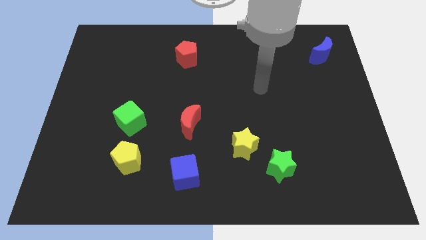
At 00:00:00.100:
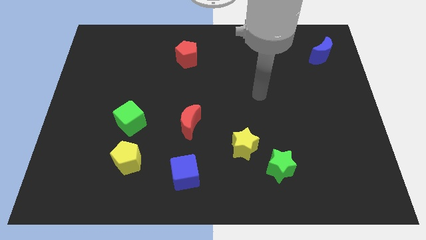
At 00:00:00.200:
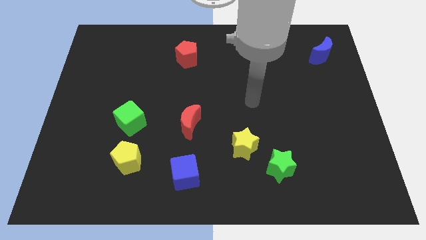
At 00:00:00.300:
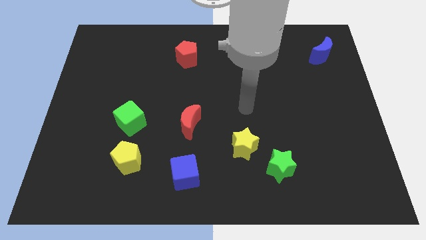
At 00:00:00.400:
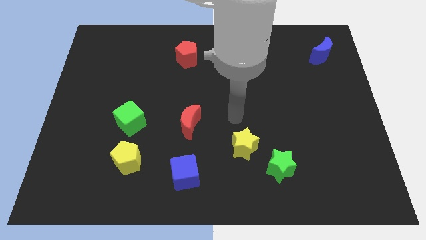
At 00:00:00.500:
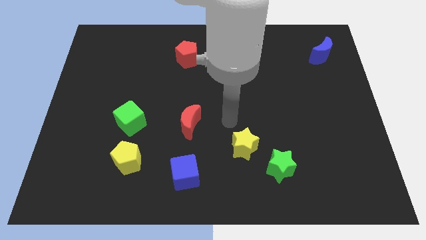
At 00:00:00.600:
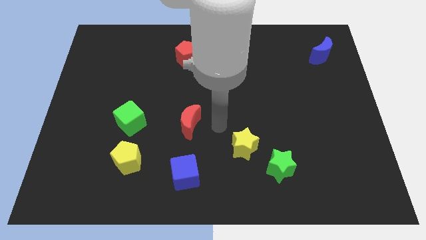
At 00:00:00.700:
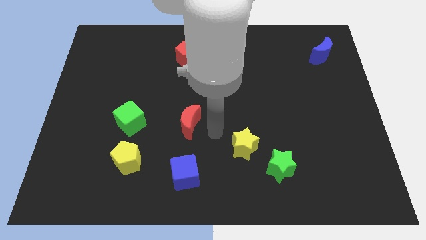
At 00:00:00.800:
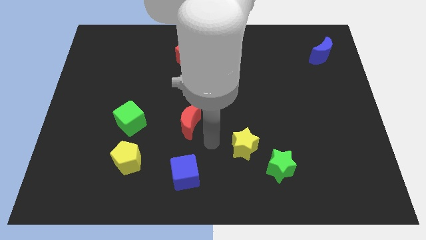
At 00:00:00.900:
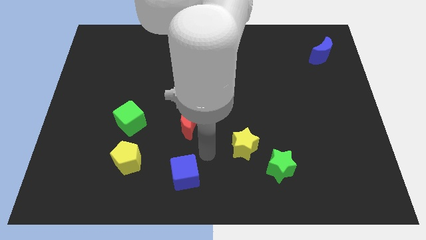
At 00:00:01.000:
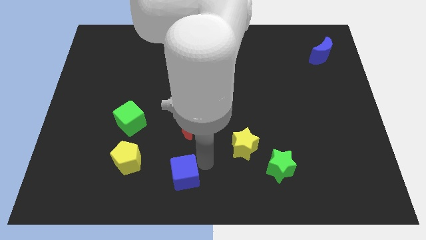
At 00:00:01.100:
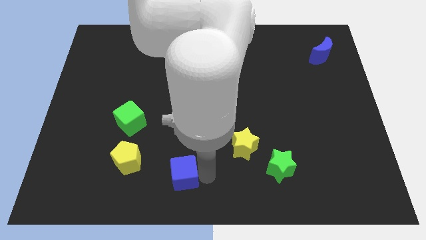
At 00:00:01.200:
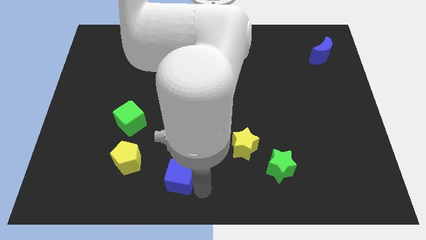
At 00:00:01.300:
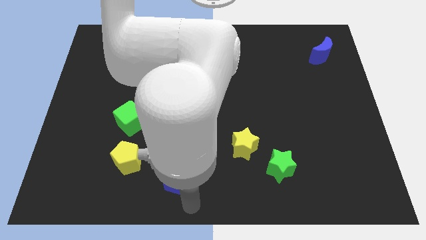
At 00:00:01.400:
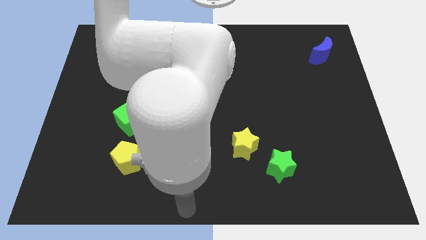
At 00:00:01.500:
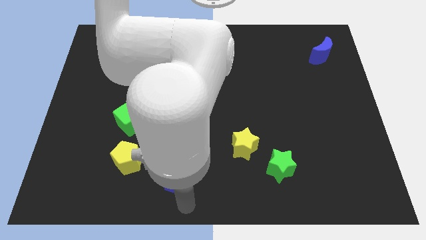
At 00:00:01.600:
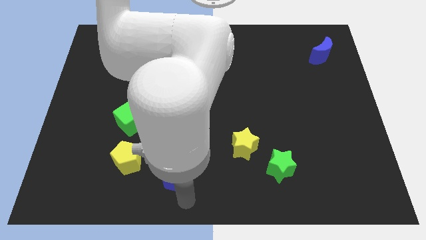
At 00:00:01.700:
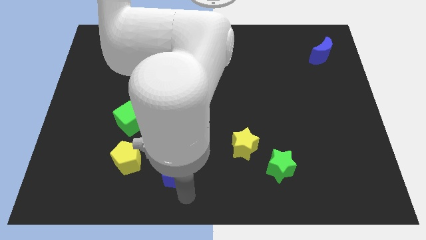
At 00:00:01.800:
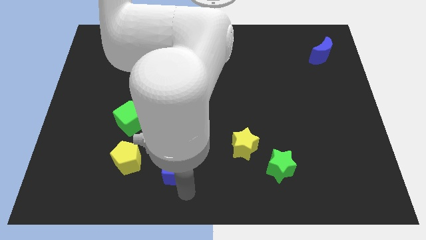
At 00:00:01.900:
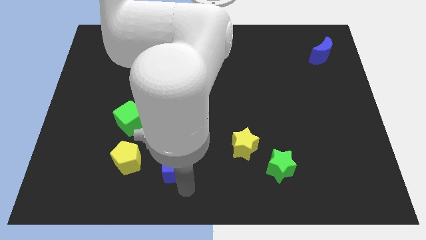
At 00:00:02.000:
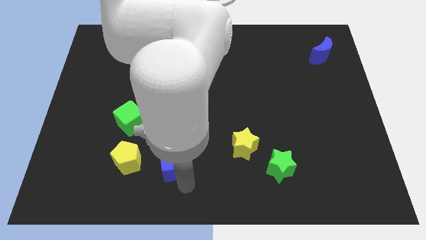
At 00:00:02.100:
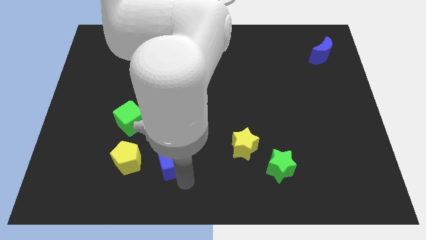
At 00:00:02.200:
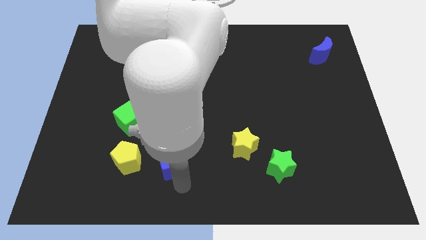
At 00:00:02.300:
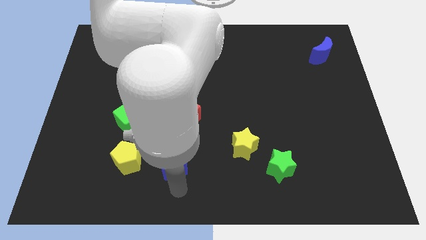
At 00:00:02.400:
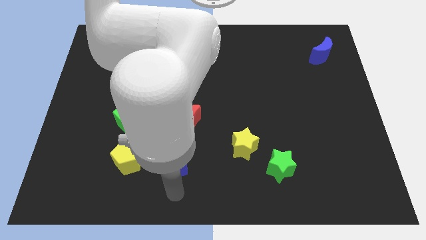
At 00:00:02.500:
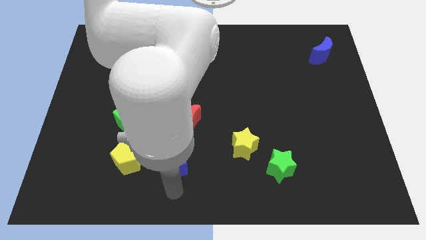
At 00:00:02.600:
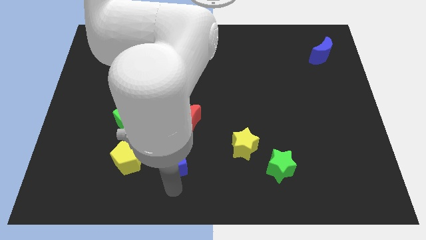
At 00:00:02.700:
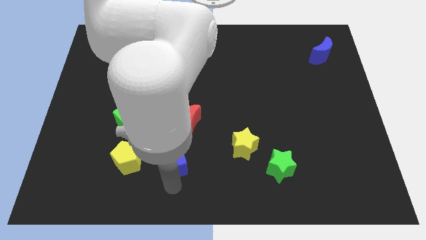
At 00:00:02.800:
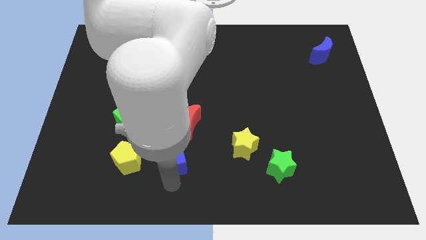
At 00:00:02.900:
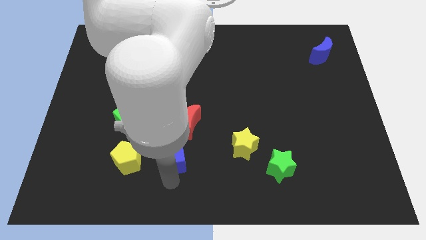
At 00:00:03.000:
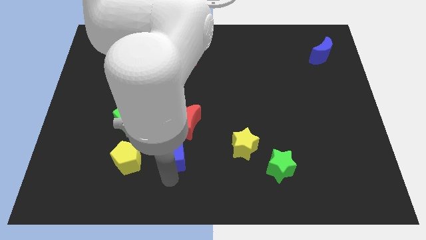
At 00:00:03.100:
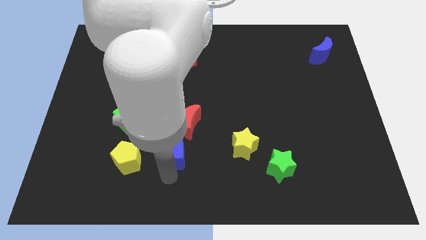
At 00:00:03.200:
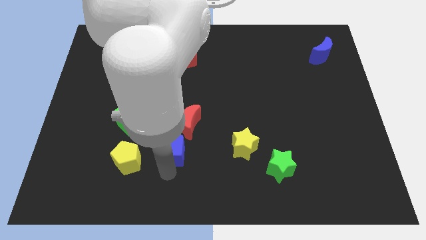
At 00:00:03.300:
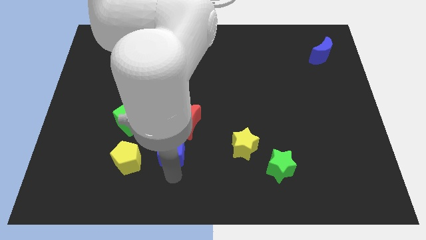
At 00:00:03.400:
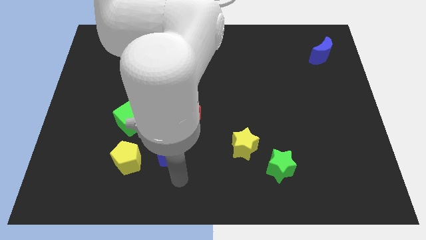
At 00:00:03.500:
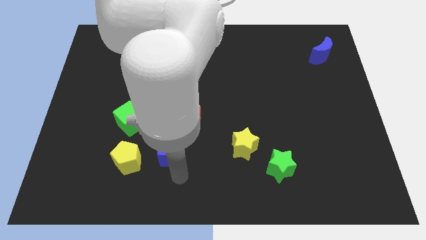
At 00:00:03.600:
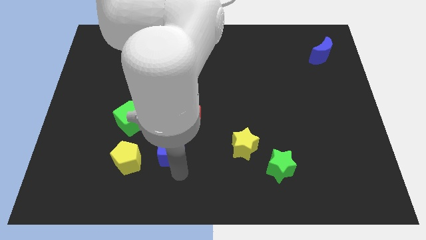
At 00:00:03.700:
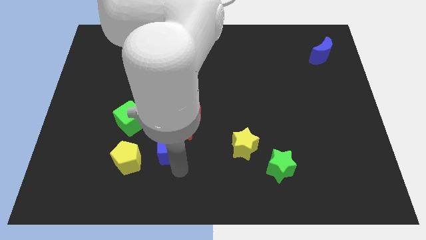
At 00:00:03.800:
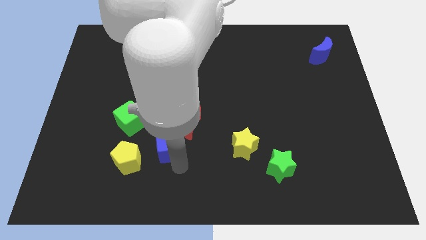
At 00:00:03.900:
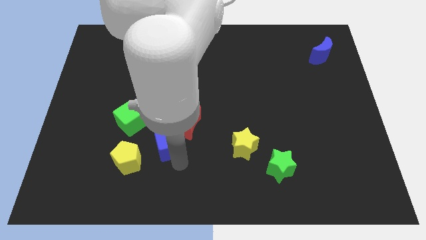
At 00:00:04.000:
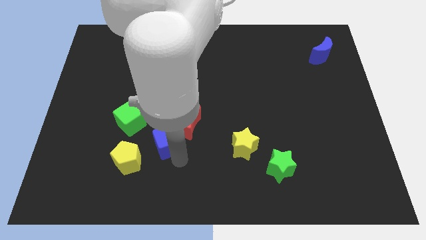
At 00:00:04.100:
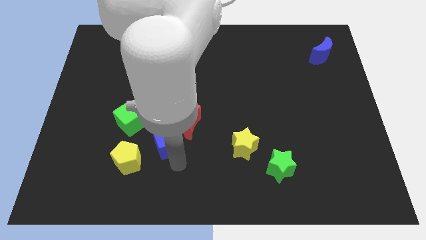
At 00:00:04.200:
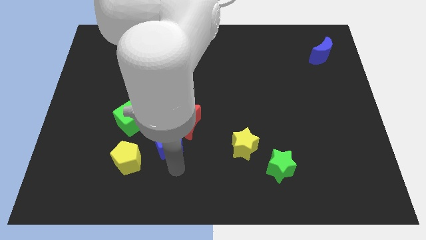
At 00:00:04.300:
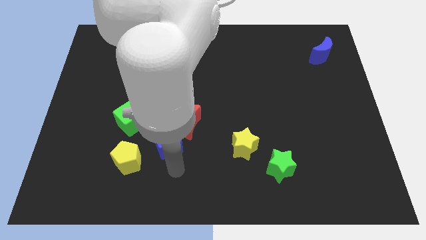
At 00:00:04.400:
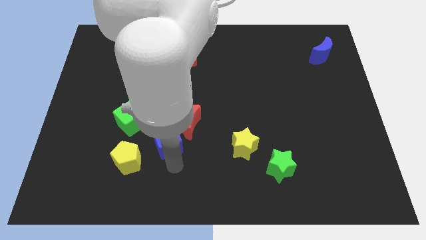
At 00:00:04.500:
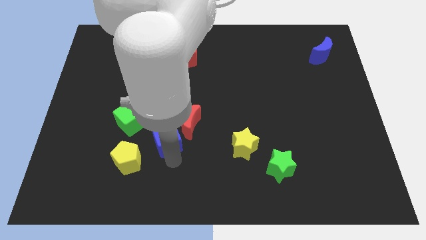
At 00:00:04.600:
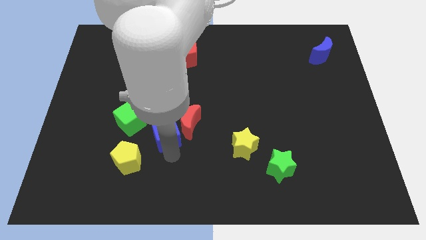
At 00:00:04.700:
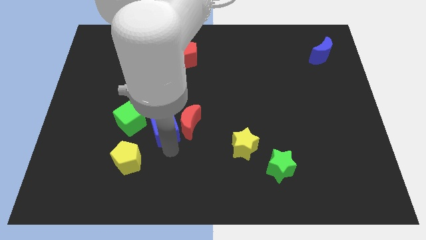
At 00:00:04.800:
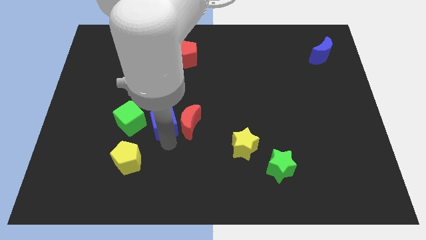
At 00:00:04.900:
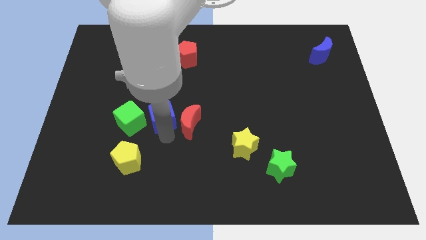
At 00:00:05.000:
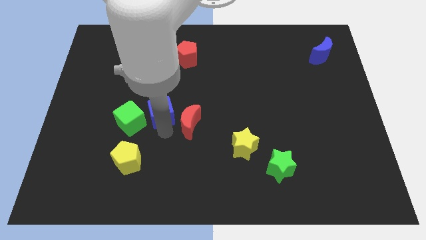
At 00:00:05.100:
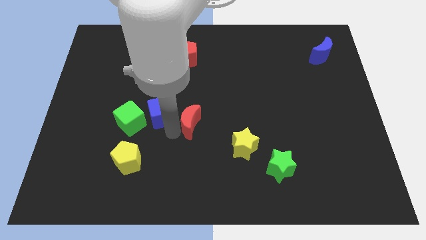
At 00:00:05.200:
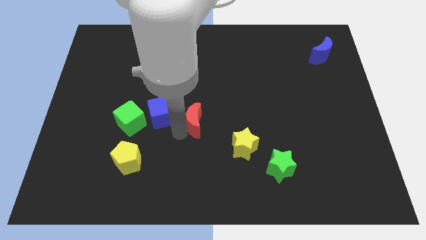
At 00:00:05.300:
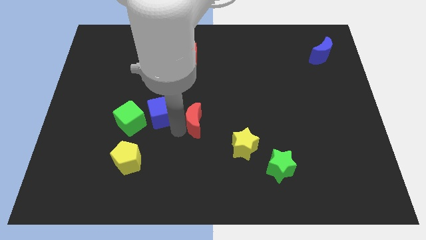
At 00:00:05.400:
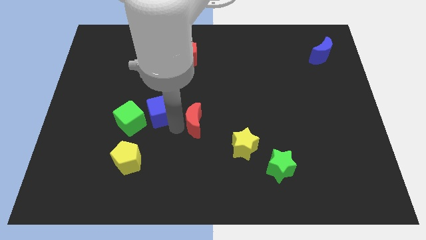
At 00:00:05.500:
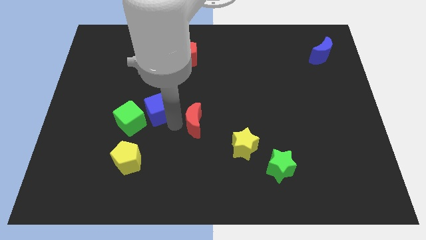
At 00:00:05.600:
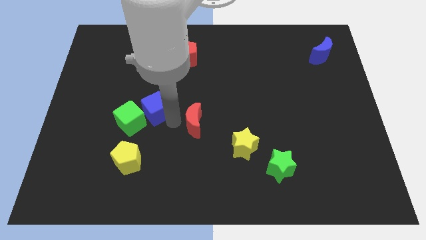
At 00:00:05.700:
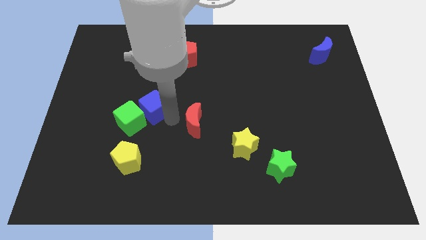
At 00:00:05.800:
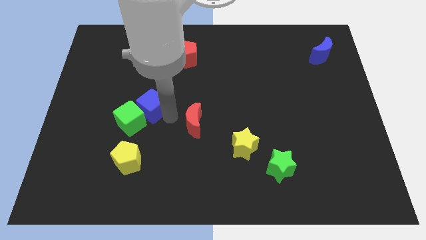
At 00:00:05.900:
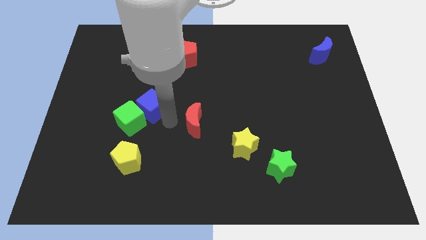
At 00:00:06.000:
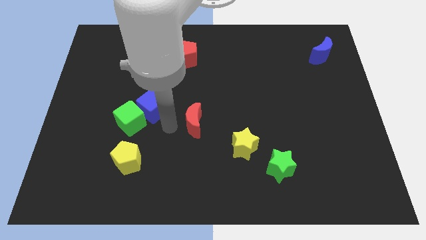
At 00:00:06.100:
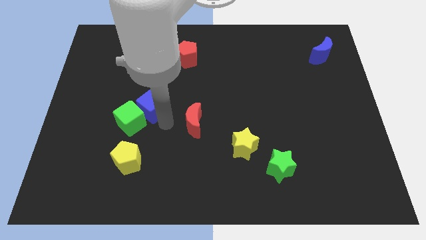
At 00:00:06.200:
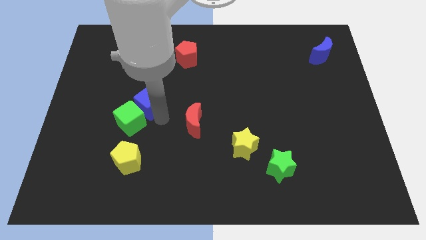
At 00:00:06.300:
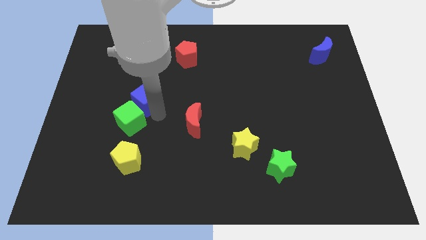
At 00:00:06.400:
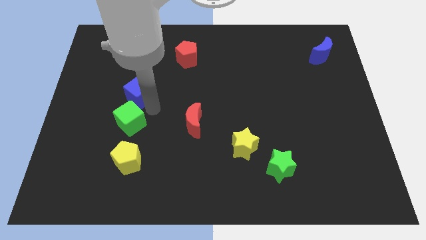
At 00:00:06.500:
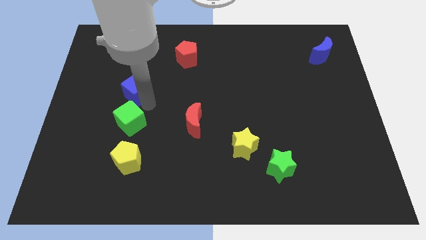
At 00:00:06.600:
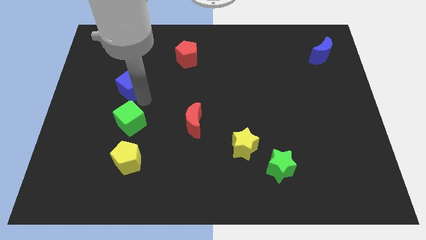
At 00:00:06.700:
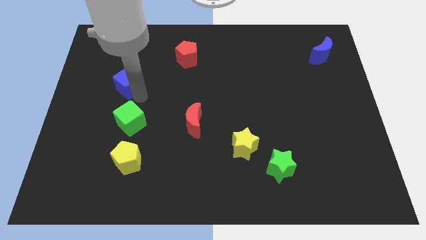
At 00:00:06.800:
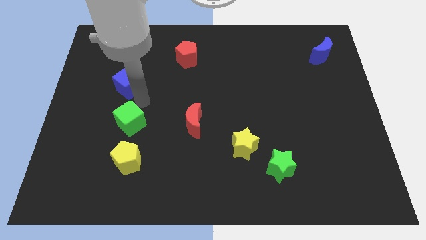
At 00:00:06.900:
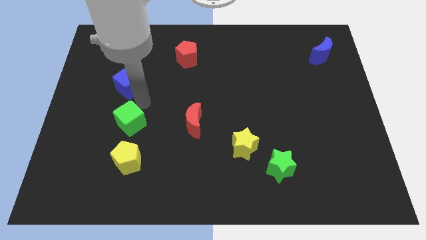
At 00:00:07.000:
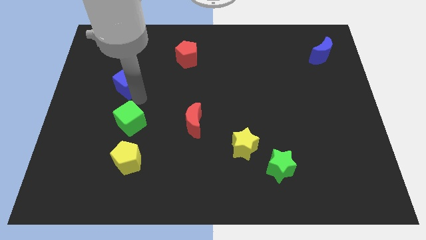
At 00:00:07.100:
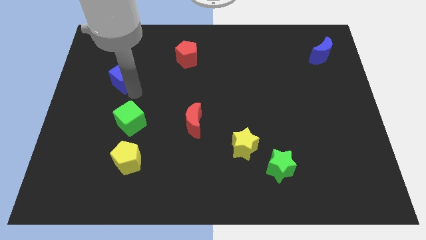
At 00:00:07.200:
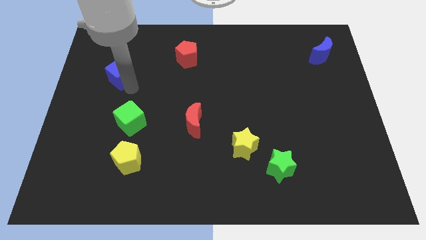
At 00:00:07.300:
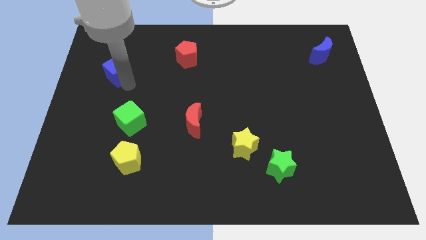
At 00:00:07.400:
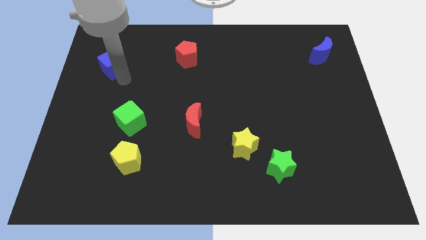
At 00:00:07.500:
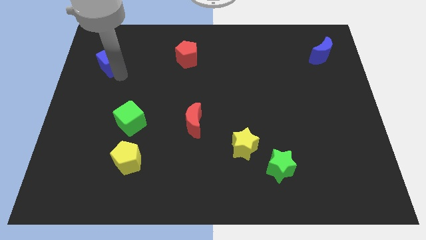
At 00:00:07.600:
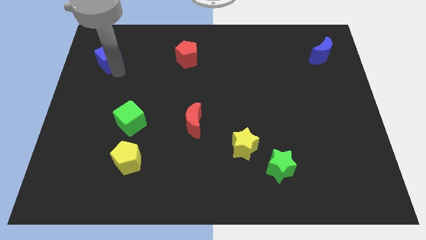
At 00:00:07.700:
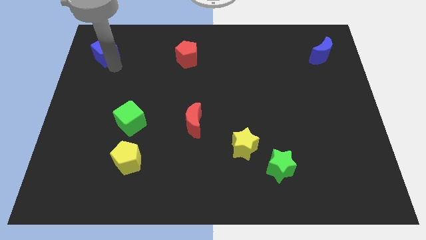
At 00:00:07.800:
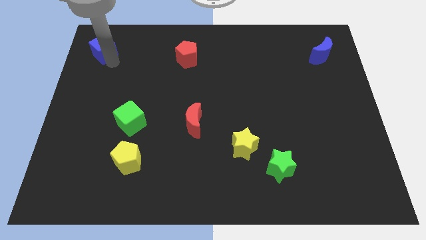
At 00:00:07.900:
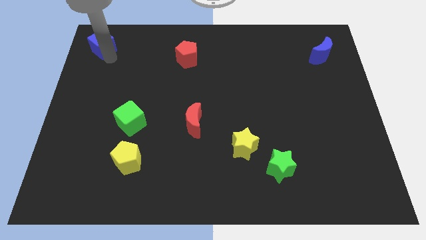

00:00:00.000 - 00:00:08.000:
put the blue cube to the top left corner
